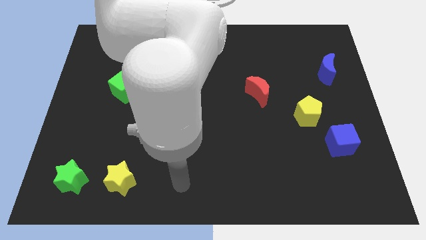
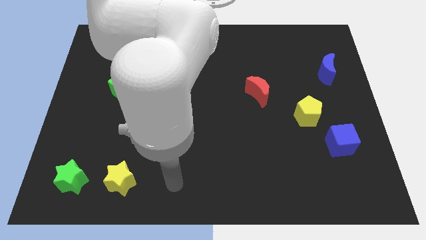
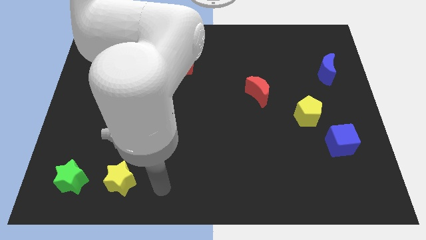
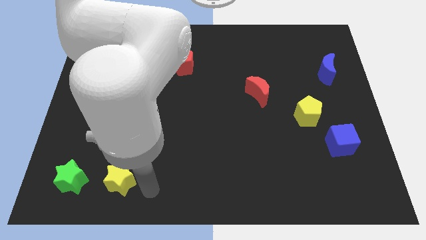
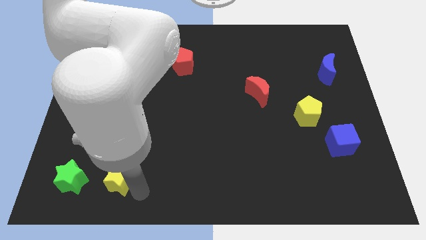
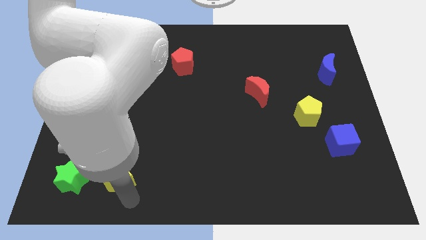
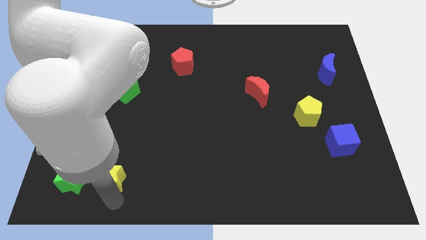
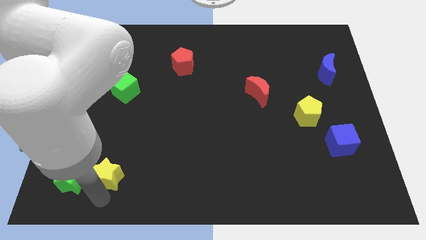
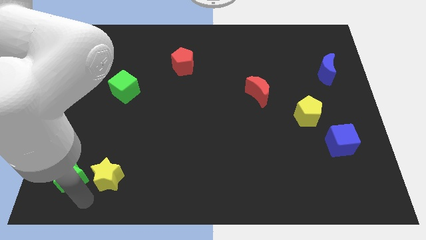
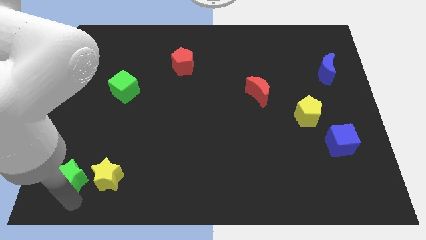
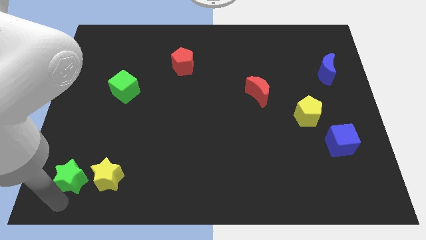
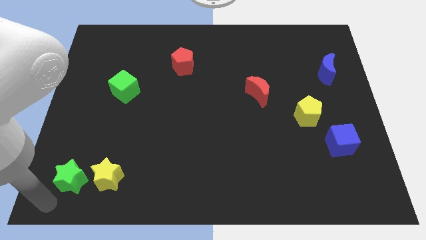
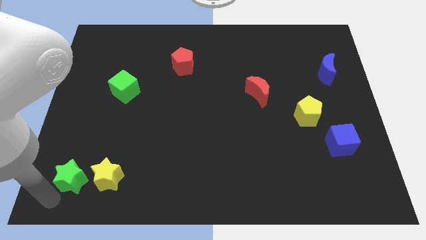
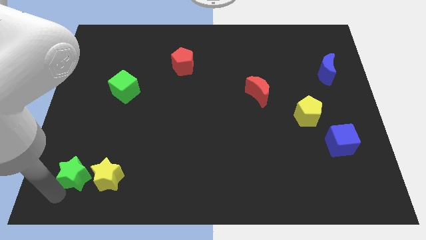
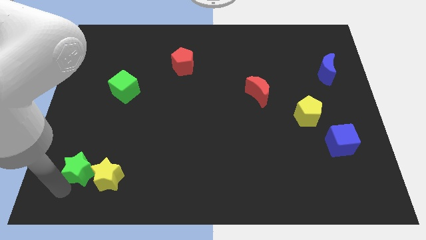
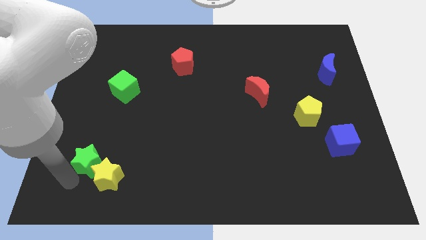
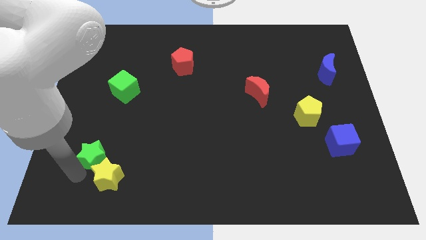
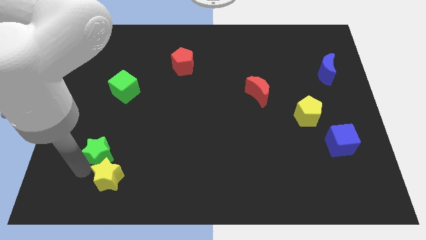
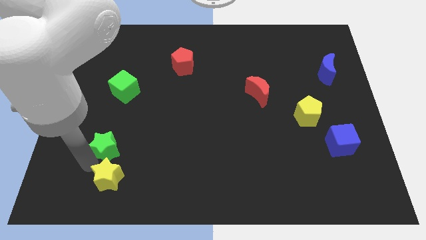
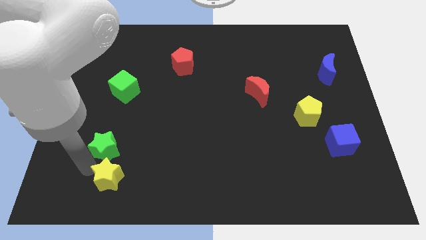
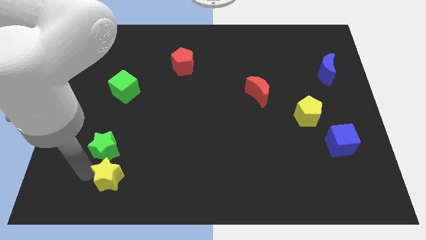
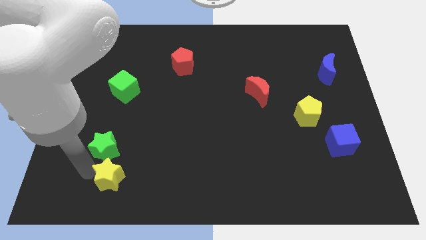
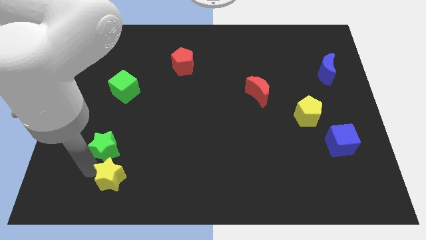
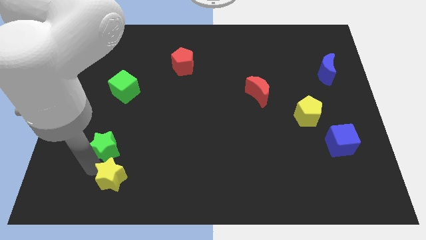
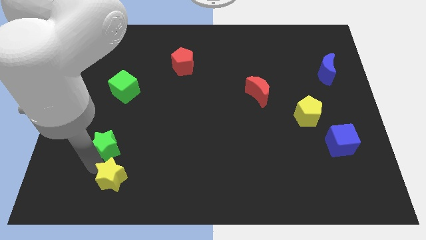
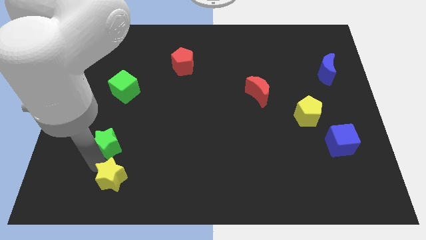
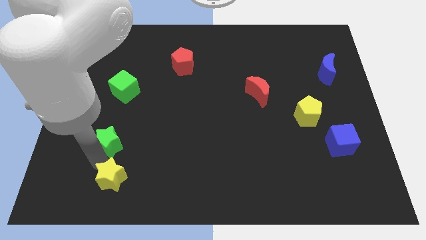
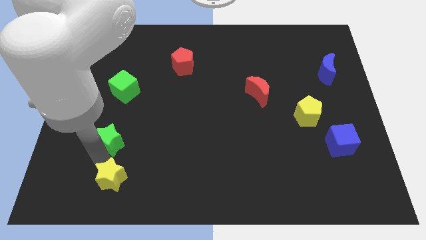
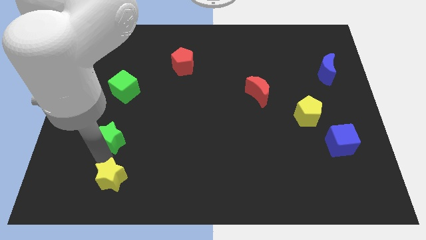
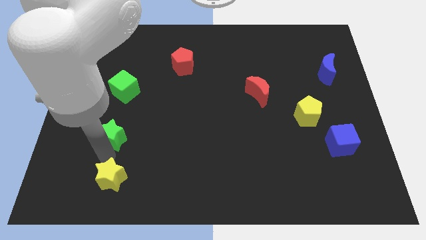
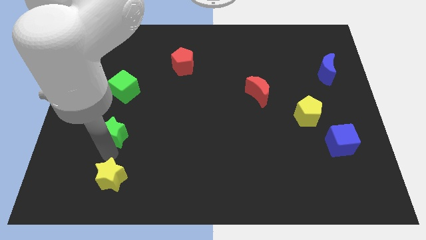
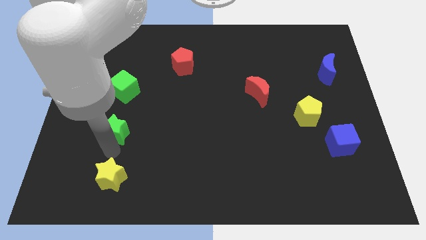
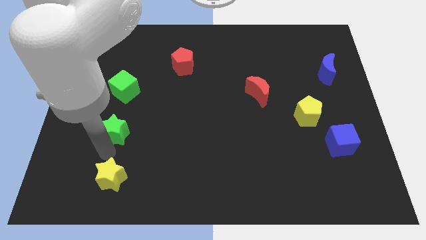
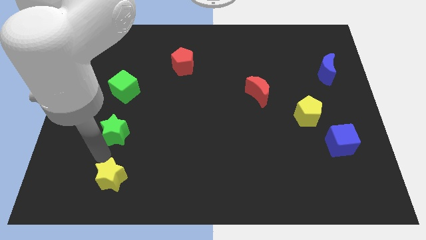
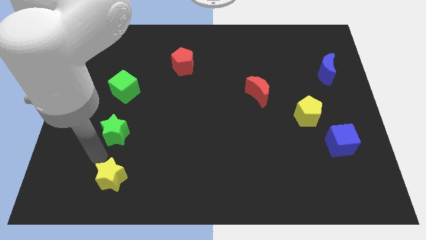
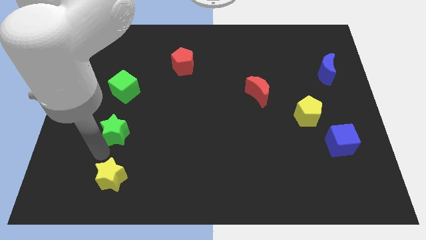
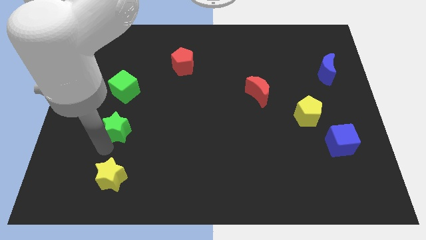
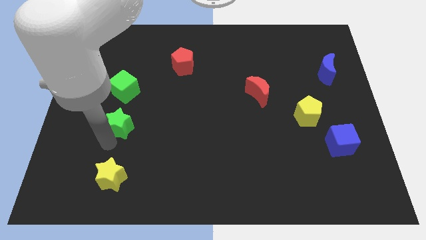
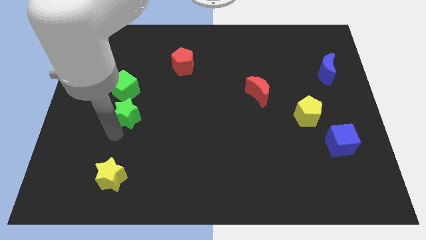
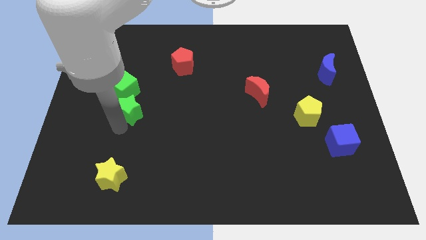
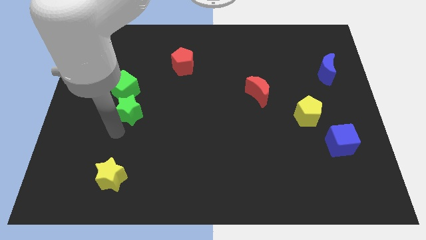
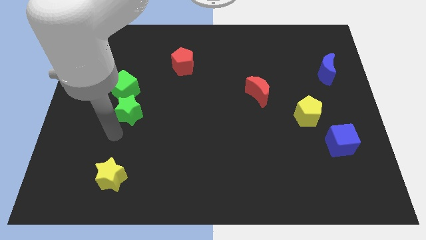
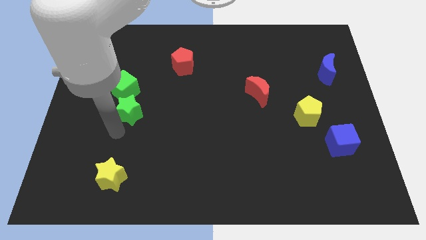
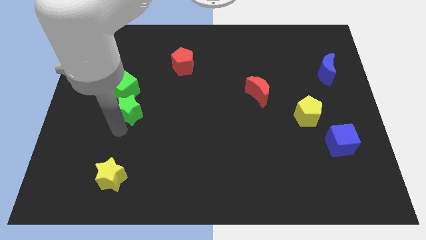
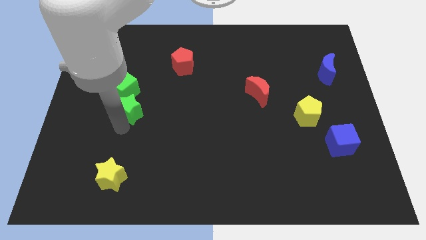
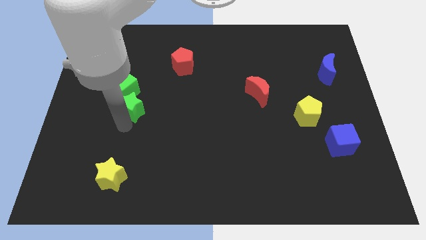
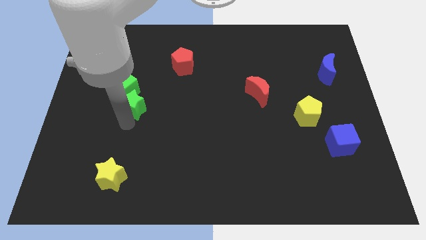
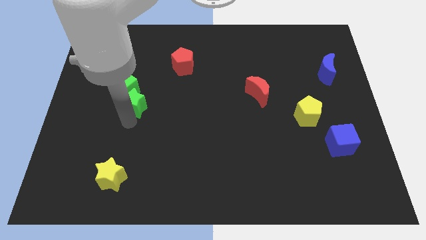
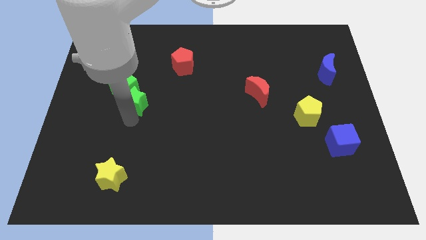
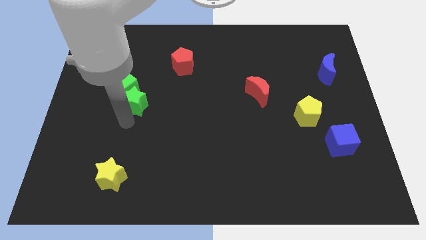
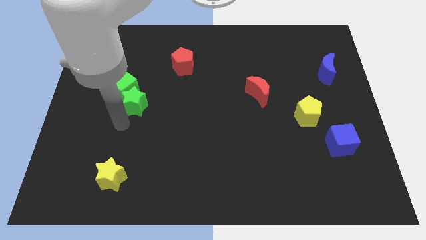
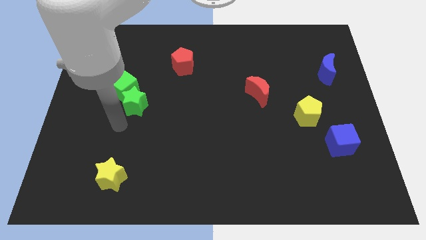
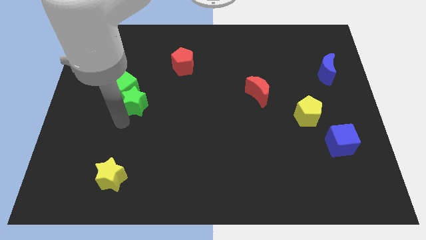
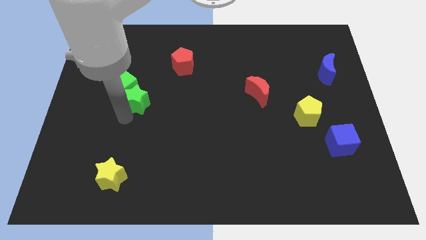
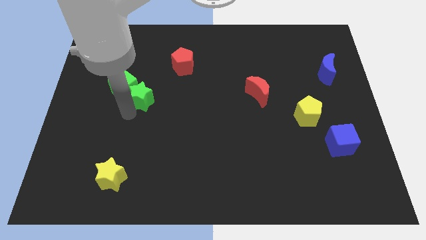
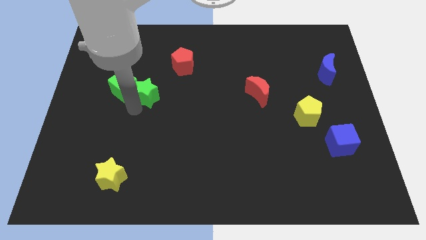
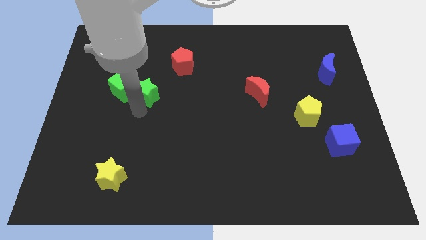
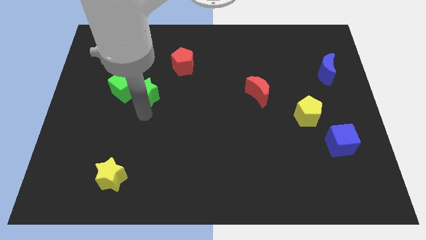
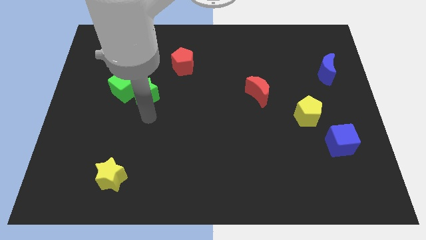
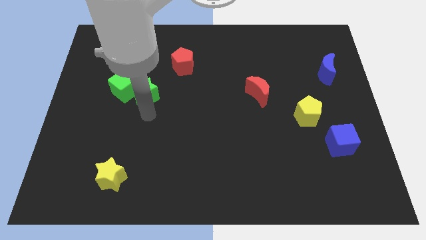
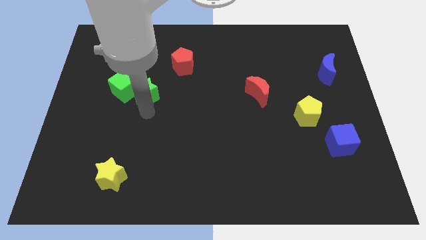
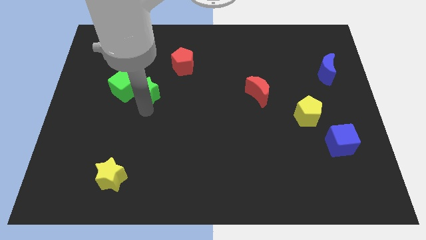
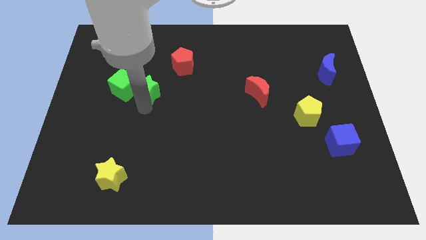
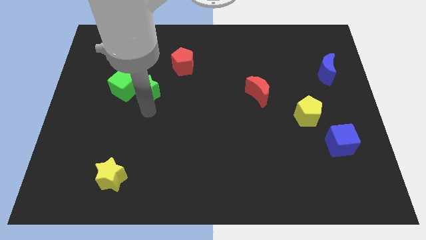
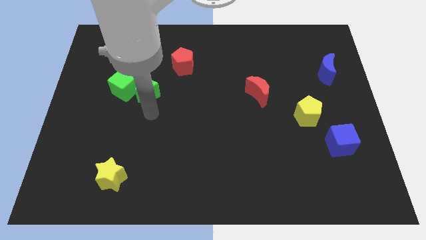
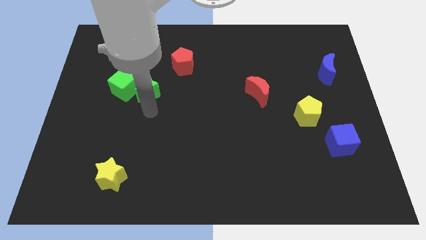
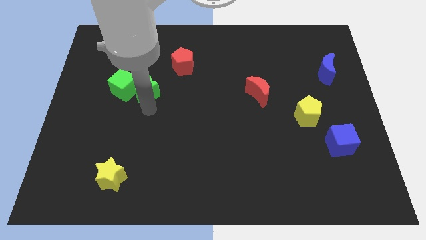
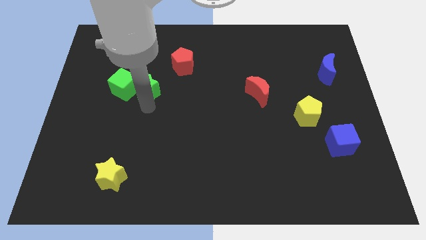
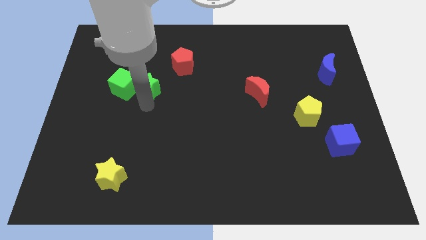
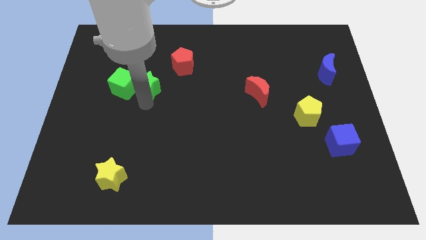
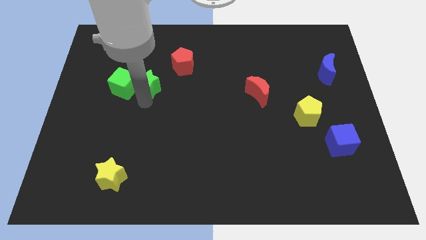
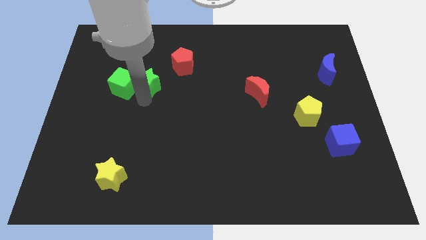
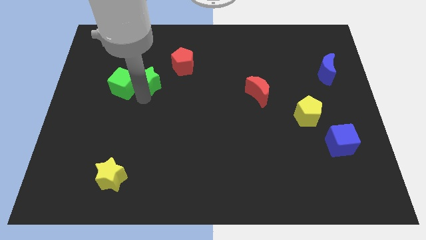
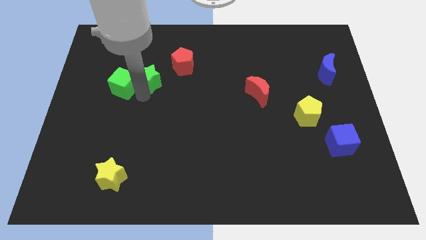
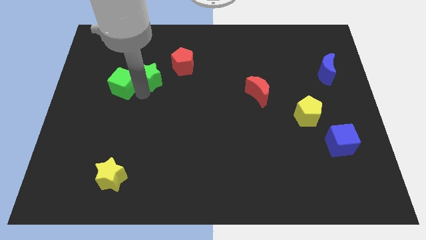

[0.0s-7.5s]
slide the green star to the left side of the red pentagon
